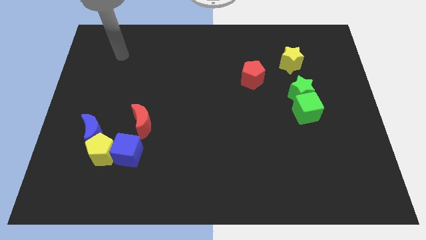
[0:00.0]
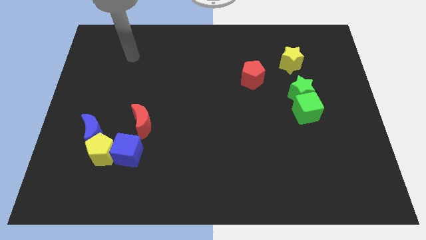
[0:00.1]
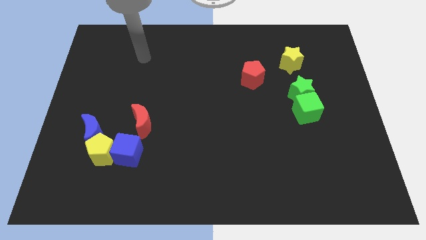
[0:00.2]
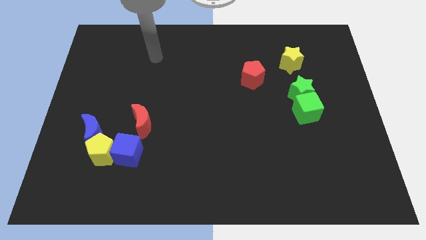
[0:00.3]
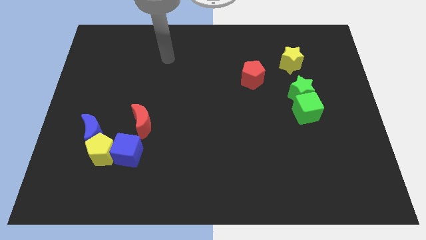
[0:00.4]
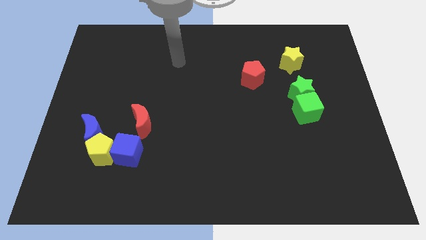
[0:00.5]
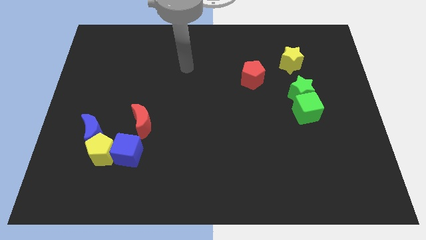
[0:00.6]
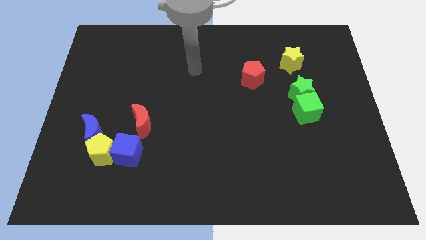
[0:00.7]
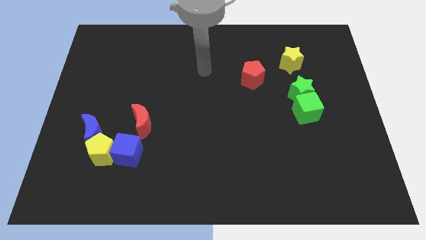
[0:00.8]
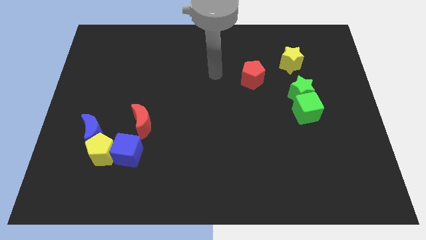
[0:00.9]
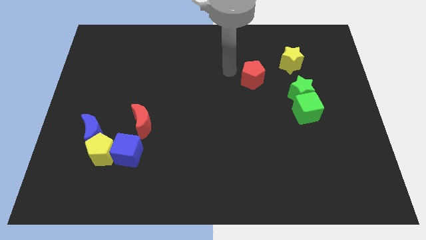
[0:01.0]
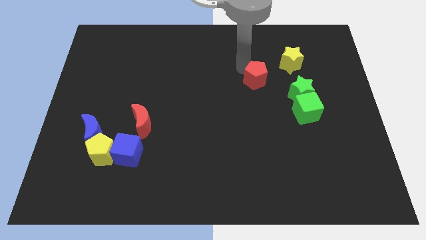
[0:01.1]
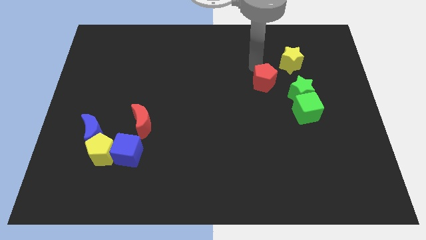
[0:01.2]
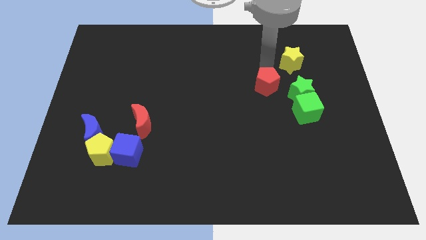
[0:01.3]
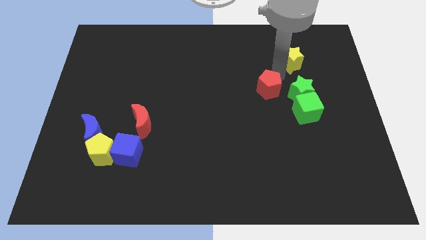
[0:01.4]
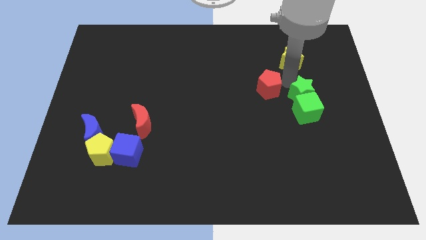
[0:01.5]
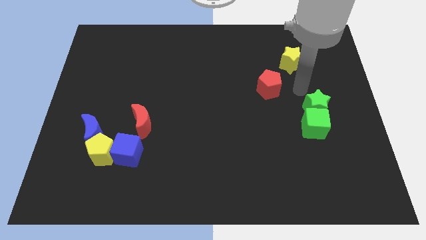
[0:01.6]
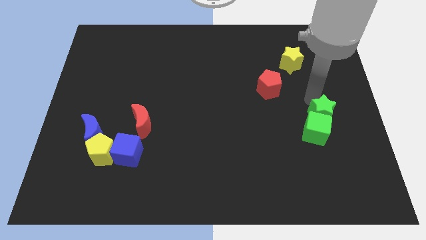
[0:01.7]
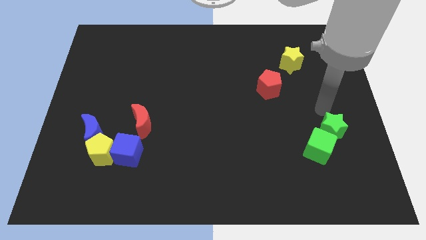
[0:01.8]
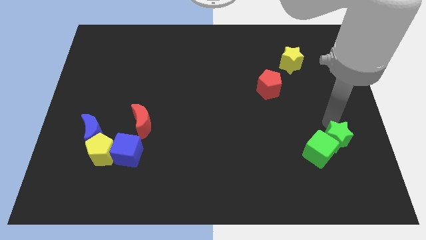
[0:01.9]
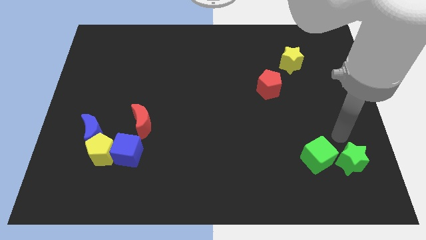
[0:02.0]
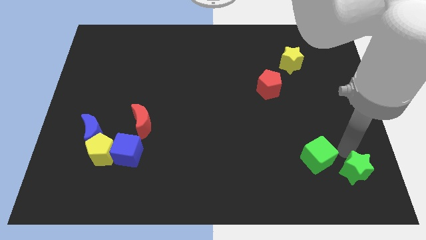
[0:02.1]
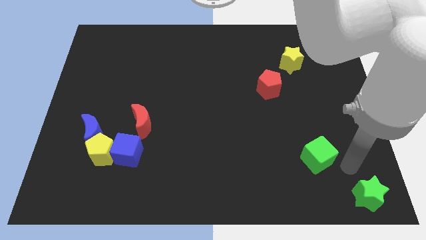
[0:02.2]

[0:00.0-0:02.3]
pull the green cube apart from the green star

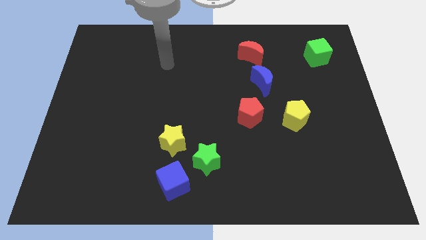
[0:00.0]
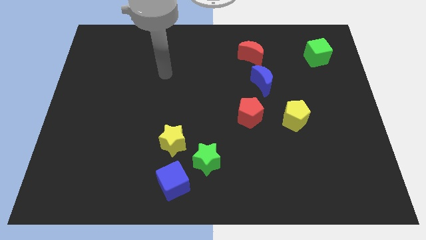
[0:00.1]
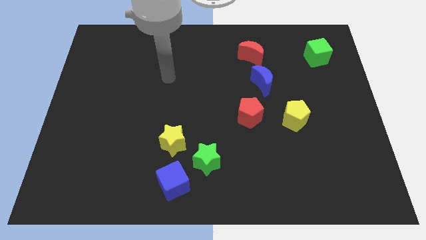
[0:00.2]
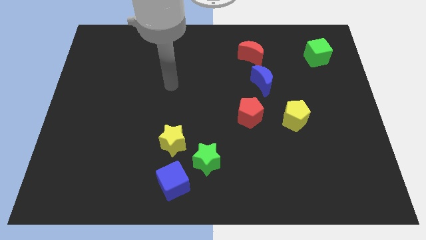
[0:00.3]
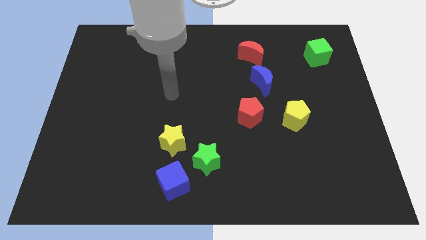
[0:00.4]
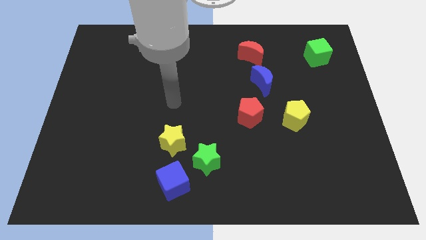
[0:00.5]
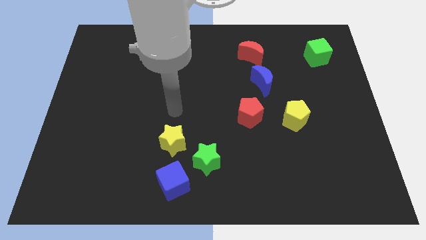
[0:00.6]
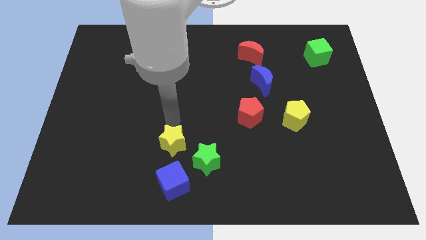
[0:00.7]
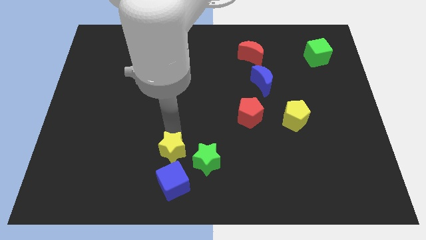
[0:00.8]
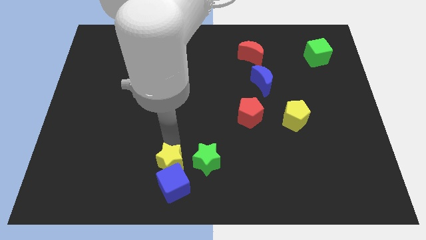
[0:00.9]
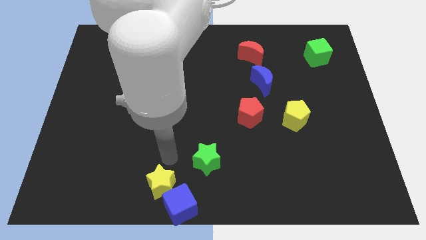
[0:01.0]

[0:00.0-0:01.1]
separate the green star from the blue cube and yellow star

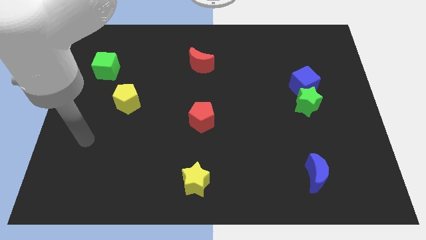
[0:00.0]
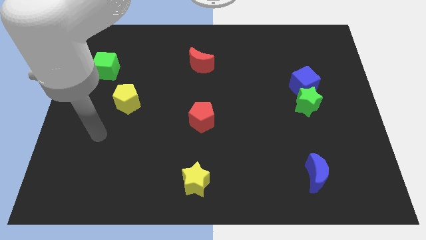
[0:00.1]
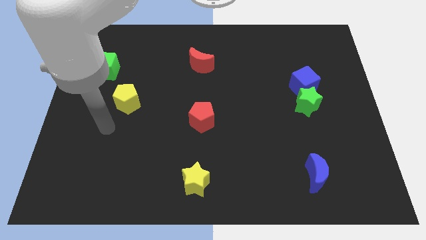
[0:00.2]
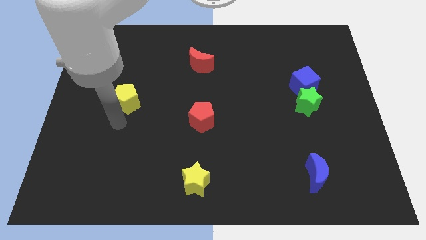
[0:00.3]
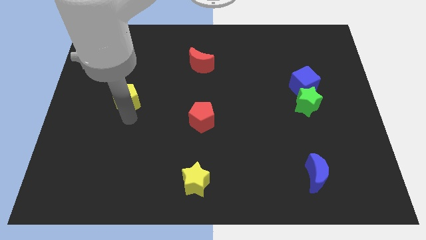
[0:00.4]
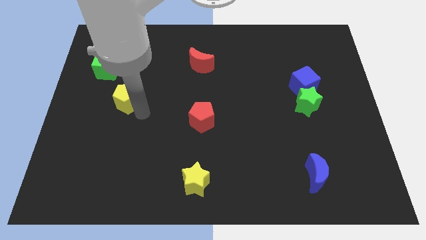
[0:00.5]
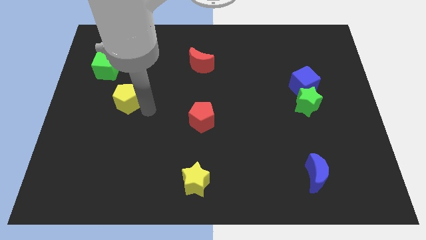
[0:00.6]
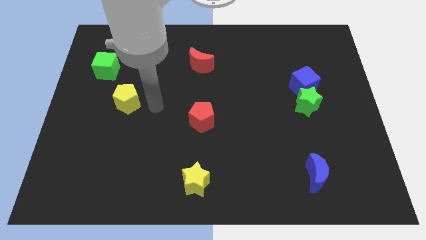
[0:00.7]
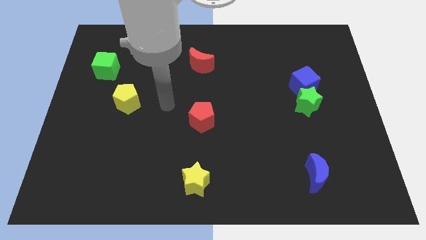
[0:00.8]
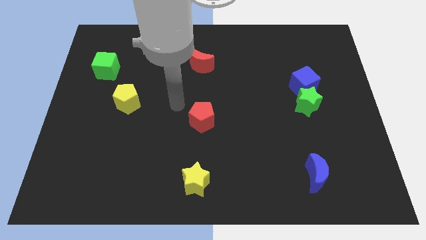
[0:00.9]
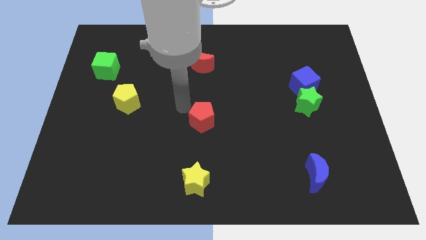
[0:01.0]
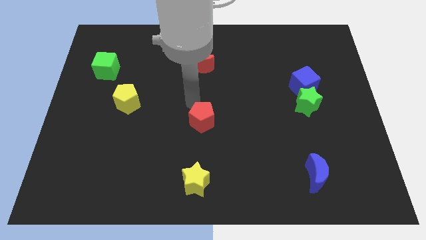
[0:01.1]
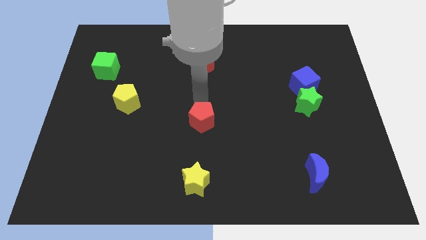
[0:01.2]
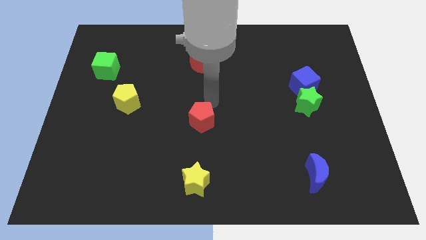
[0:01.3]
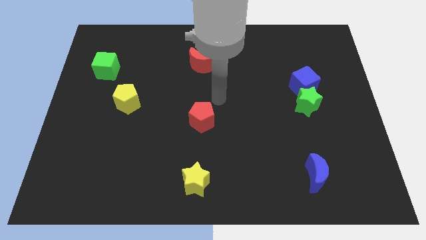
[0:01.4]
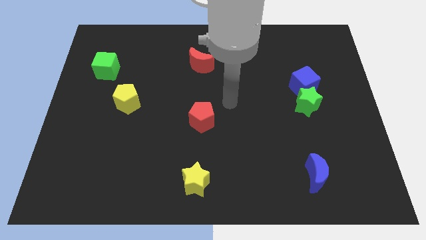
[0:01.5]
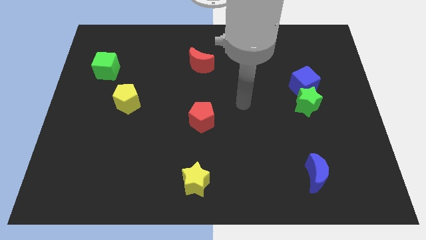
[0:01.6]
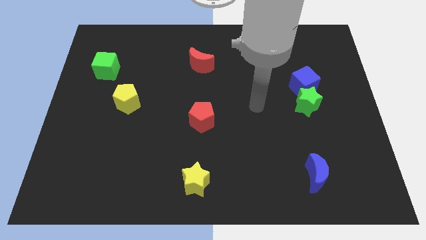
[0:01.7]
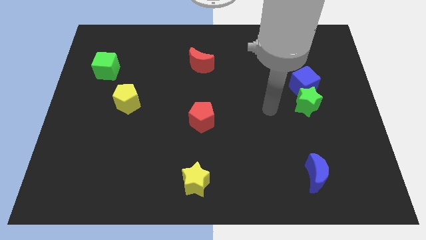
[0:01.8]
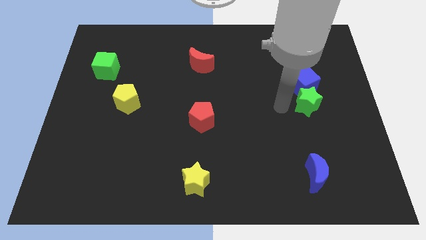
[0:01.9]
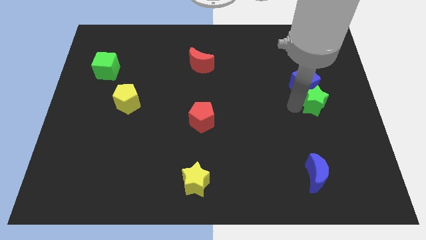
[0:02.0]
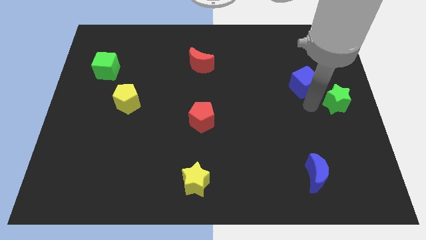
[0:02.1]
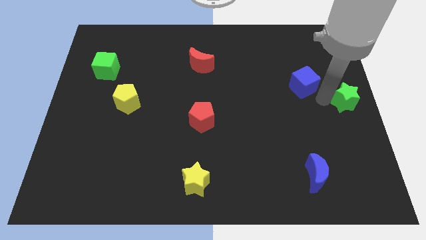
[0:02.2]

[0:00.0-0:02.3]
separate the blue cube from the green star

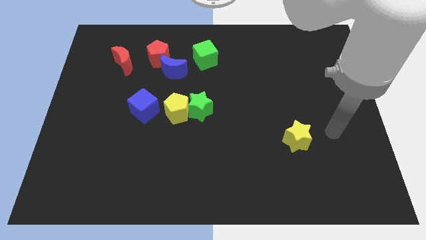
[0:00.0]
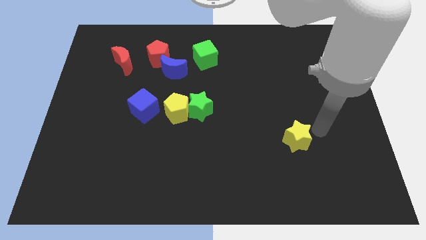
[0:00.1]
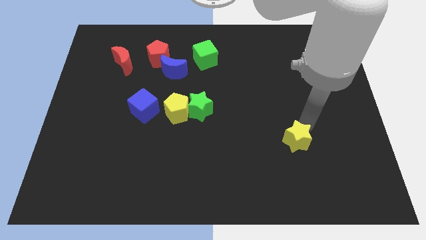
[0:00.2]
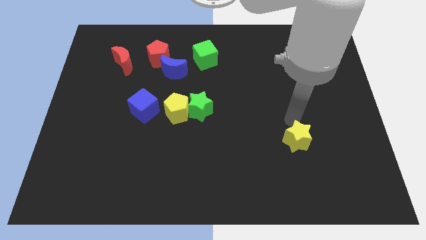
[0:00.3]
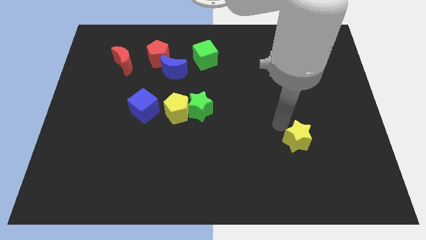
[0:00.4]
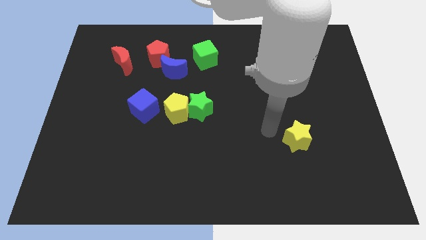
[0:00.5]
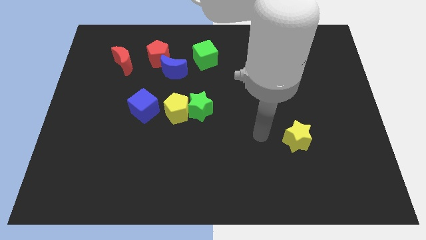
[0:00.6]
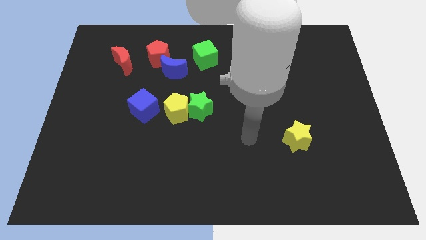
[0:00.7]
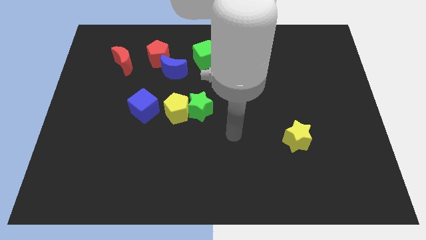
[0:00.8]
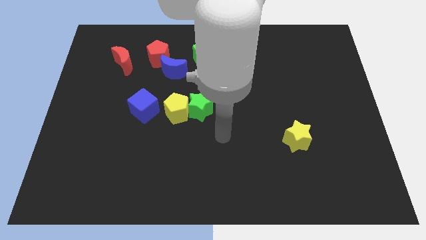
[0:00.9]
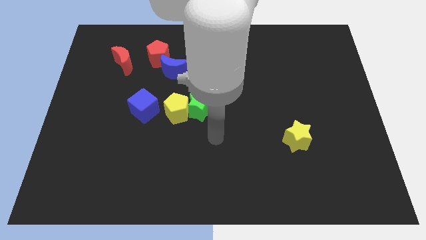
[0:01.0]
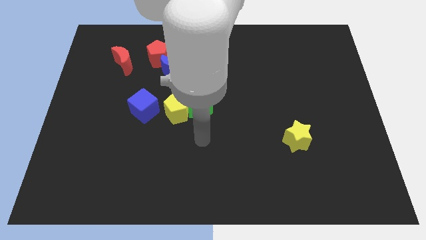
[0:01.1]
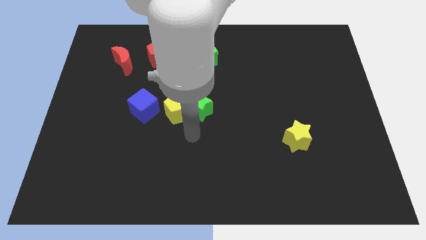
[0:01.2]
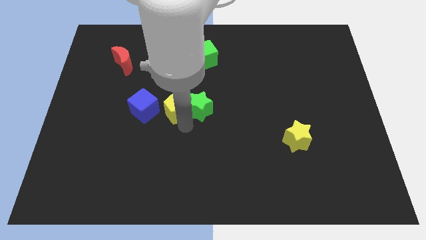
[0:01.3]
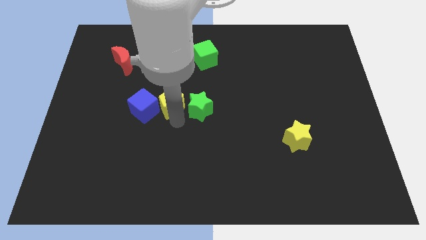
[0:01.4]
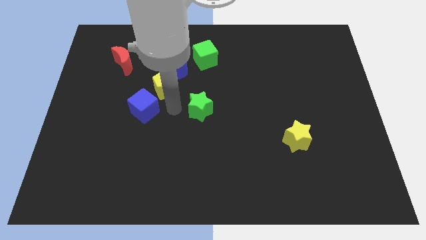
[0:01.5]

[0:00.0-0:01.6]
pull the green star apart from the yellow pentagon

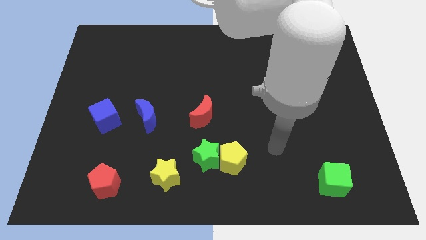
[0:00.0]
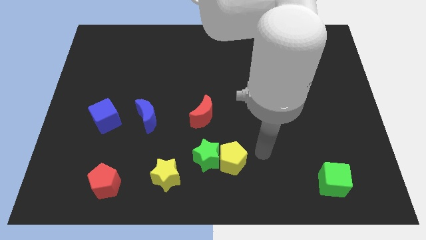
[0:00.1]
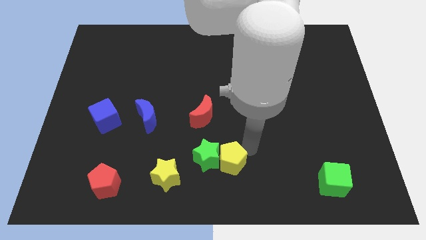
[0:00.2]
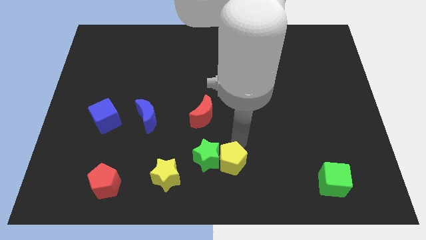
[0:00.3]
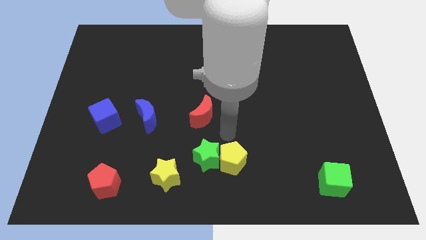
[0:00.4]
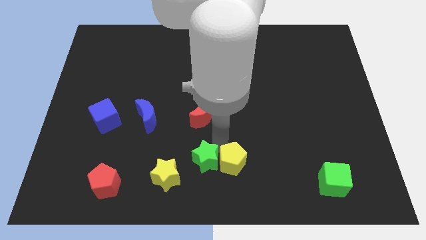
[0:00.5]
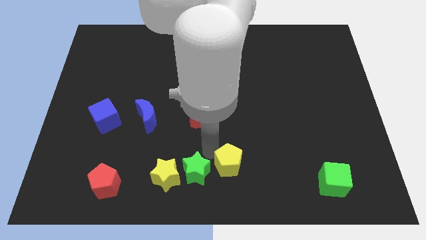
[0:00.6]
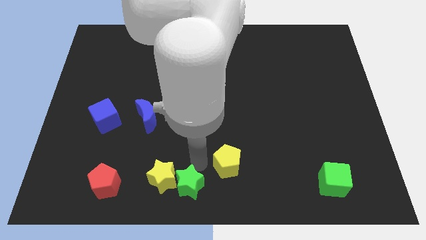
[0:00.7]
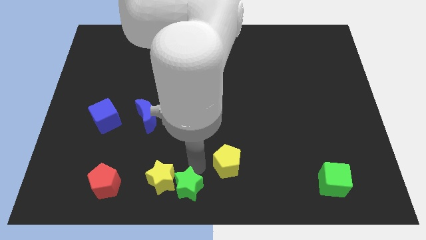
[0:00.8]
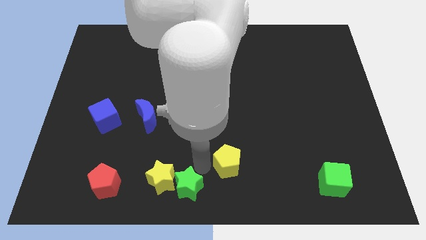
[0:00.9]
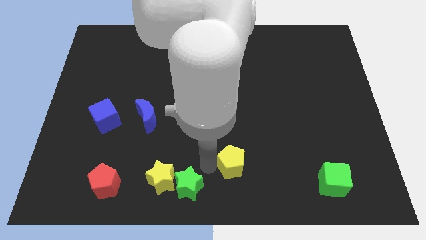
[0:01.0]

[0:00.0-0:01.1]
pull the yellow pentagon apart from the green star

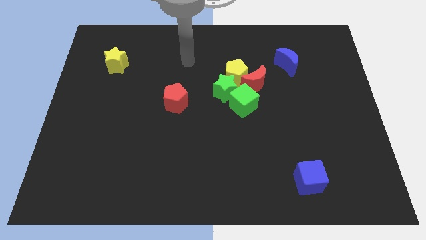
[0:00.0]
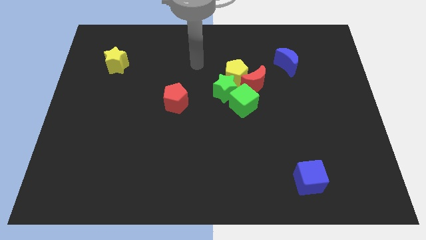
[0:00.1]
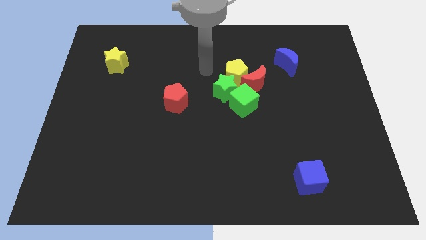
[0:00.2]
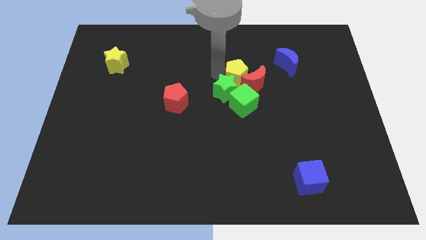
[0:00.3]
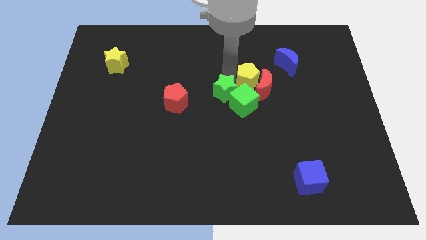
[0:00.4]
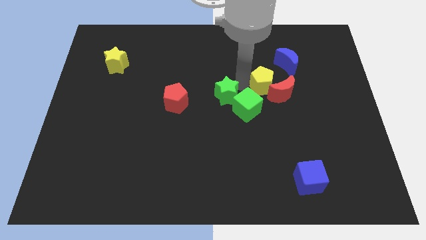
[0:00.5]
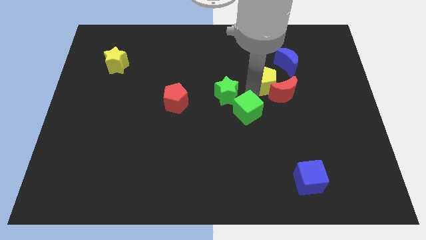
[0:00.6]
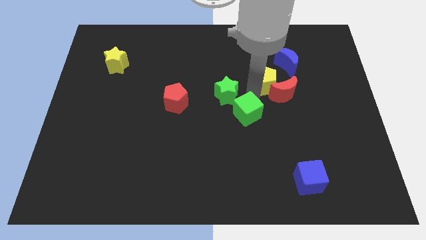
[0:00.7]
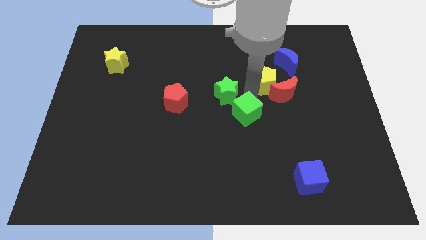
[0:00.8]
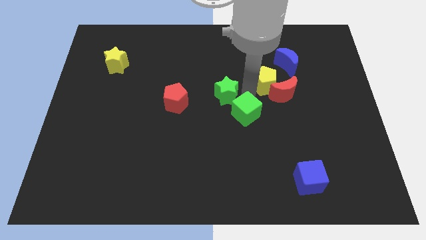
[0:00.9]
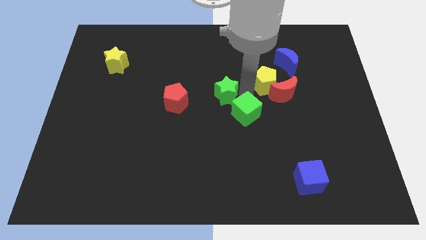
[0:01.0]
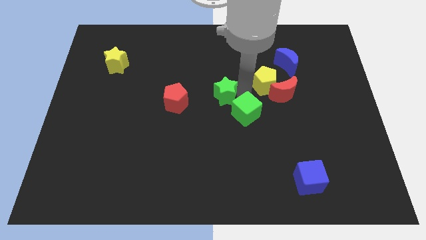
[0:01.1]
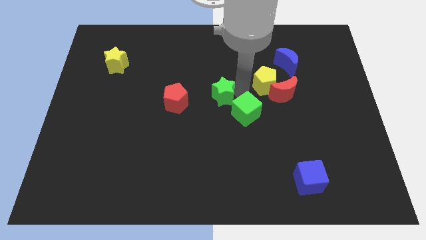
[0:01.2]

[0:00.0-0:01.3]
separate the green star from the green cube, yellow pentagon, and red moon
